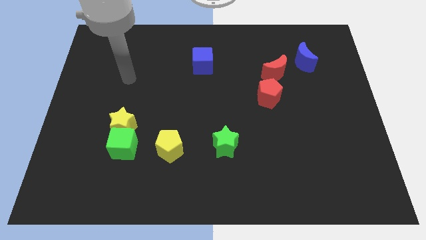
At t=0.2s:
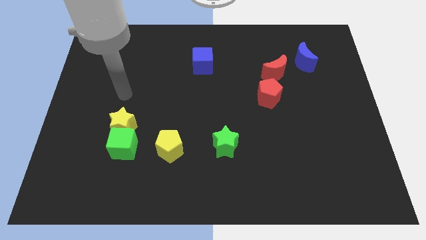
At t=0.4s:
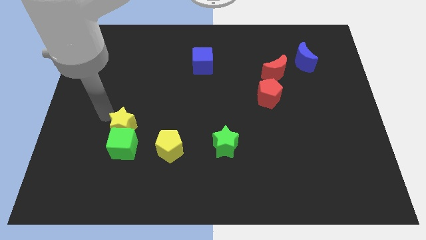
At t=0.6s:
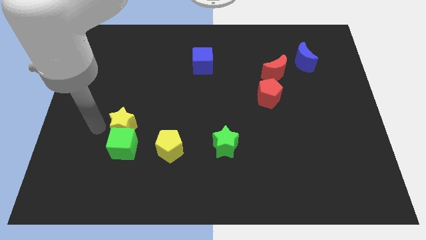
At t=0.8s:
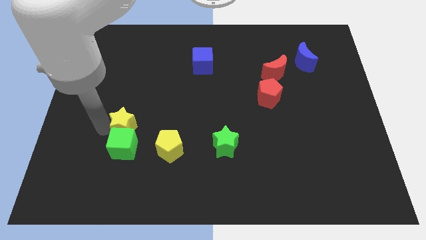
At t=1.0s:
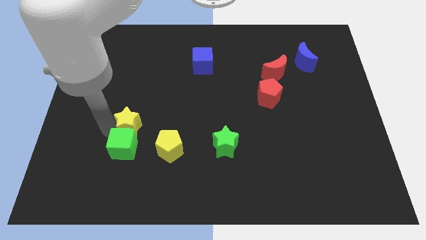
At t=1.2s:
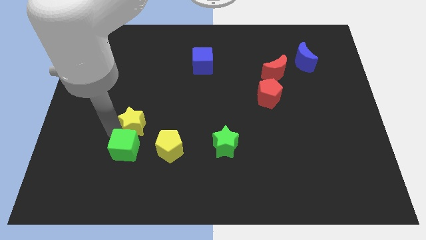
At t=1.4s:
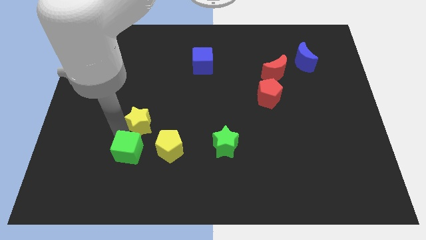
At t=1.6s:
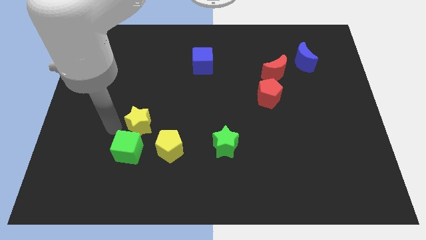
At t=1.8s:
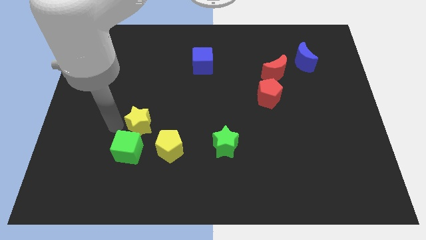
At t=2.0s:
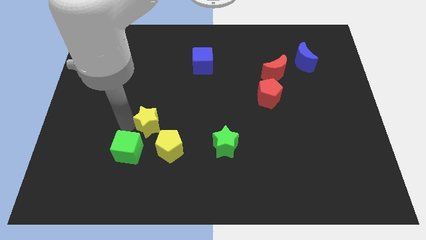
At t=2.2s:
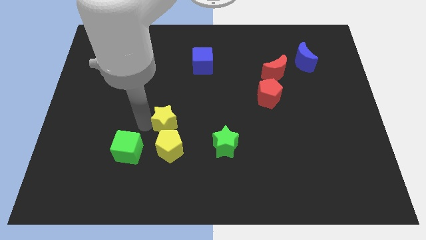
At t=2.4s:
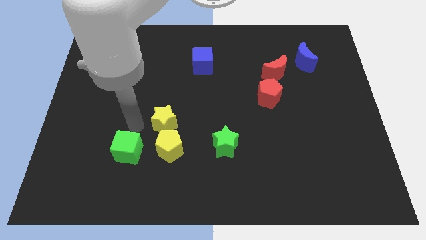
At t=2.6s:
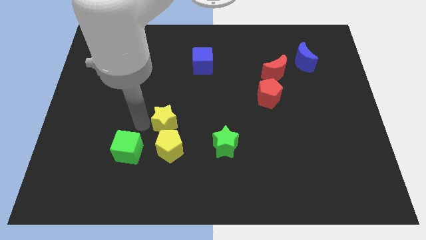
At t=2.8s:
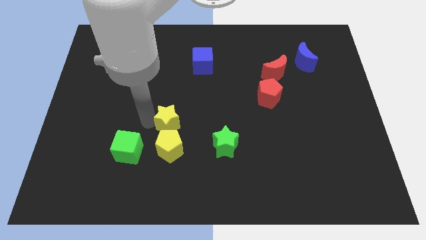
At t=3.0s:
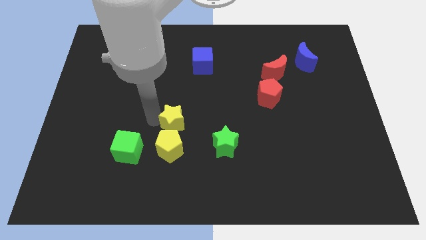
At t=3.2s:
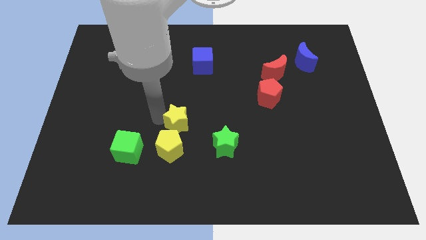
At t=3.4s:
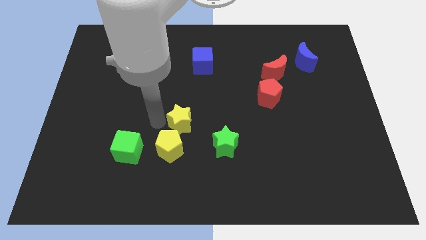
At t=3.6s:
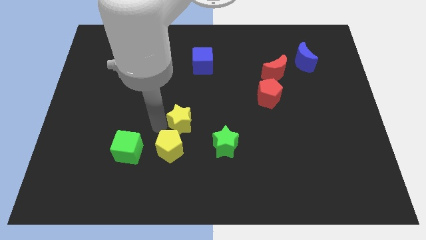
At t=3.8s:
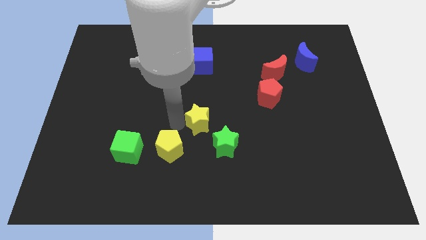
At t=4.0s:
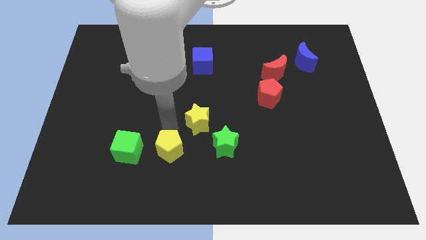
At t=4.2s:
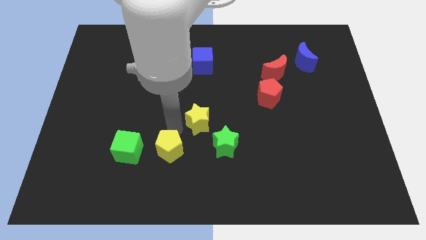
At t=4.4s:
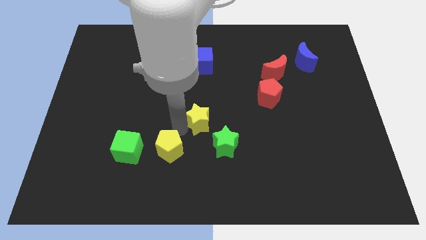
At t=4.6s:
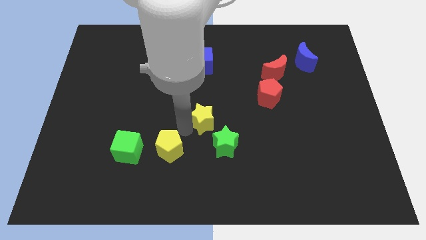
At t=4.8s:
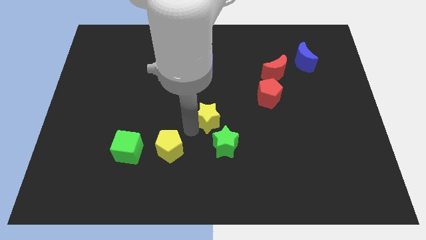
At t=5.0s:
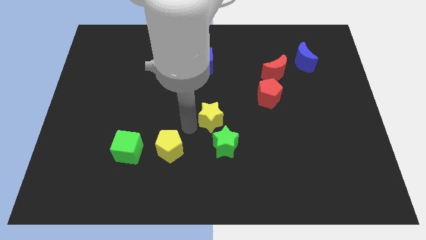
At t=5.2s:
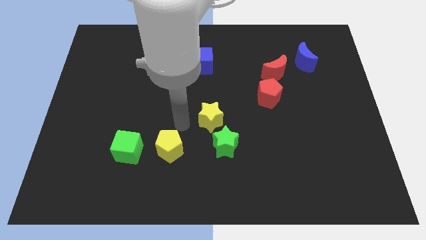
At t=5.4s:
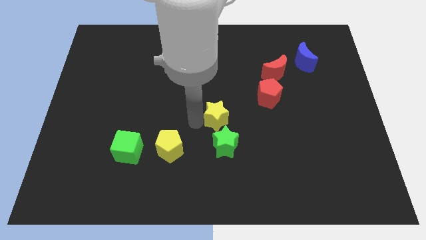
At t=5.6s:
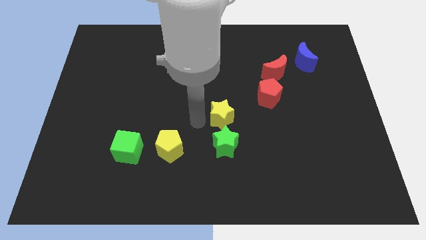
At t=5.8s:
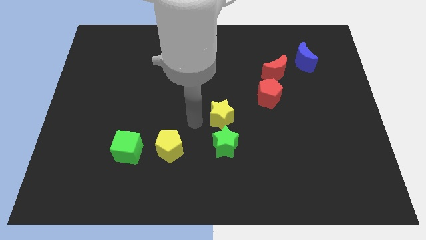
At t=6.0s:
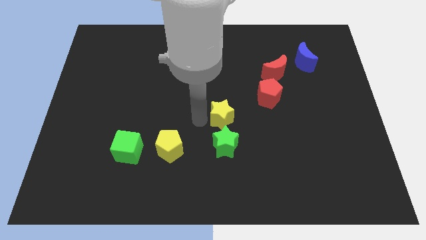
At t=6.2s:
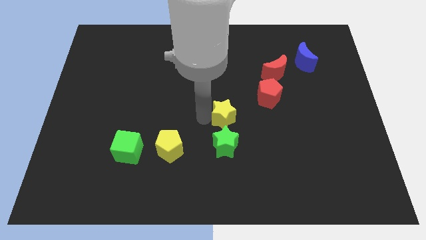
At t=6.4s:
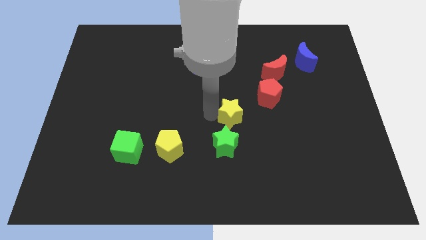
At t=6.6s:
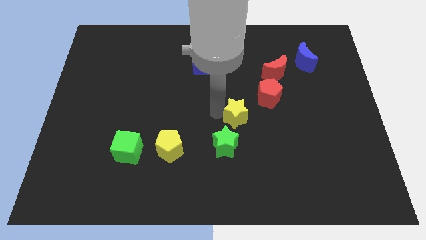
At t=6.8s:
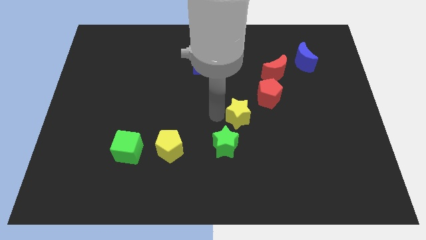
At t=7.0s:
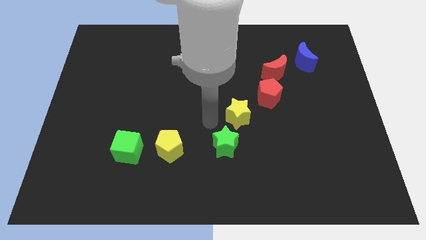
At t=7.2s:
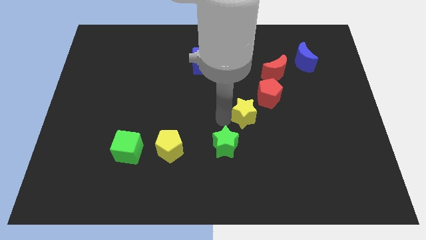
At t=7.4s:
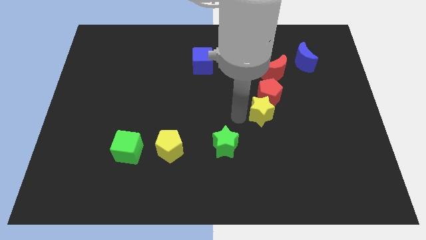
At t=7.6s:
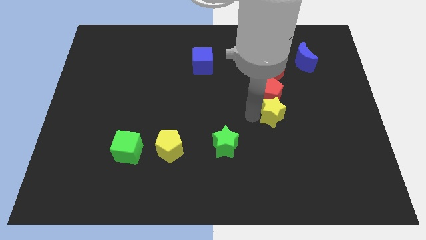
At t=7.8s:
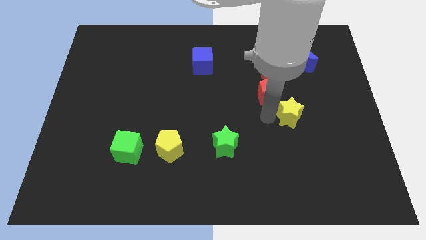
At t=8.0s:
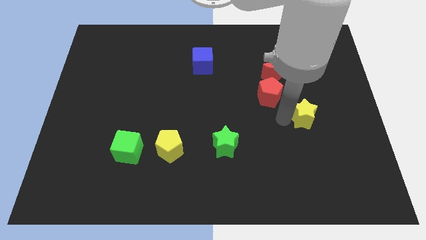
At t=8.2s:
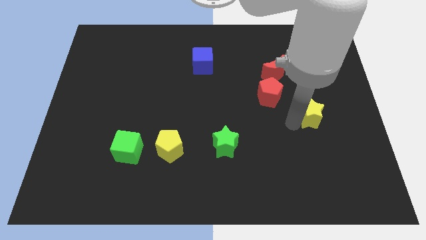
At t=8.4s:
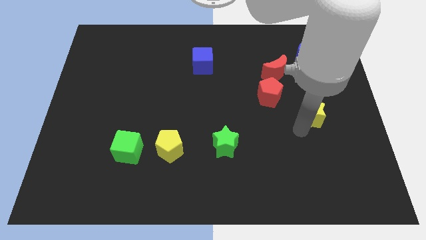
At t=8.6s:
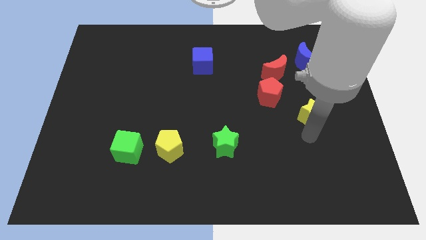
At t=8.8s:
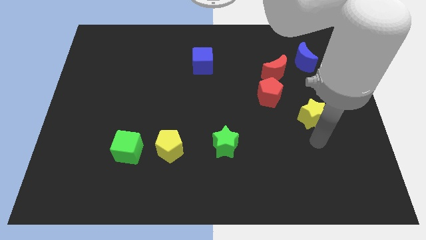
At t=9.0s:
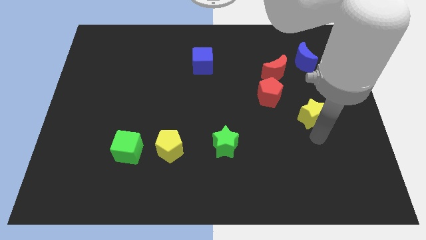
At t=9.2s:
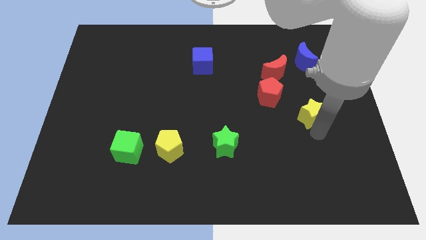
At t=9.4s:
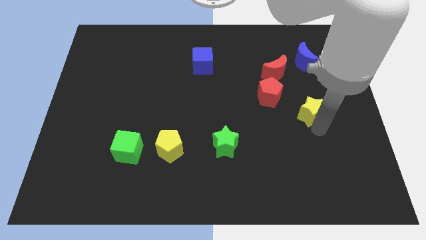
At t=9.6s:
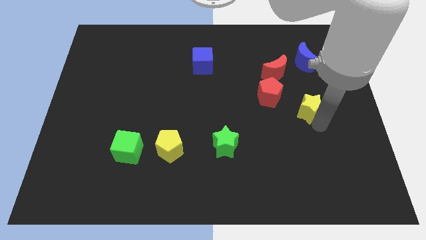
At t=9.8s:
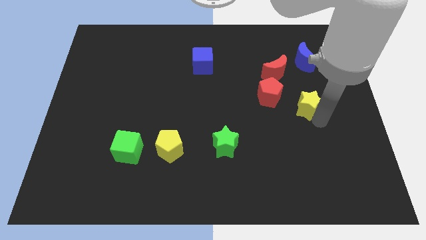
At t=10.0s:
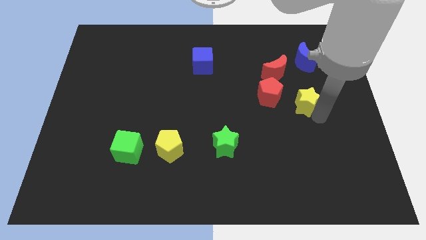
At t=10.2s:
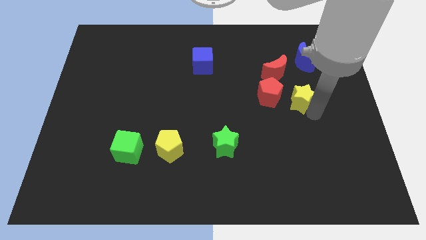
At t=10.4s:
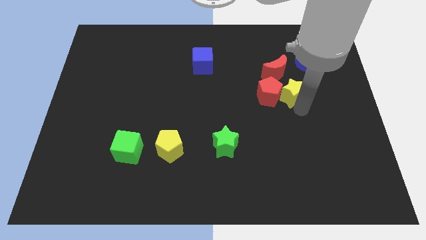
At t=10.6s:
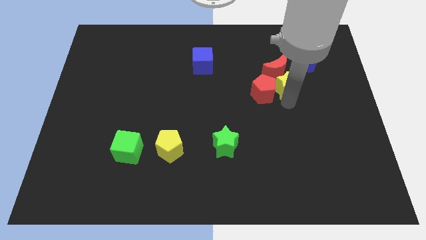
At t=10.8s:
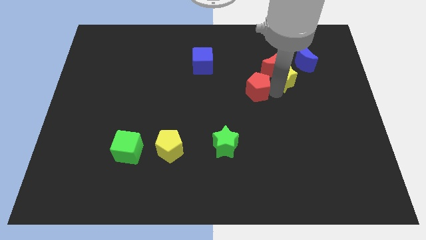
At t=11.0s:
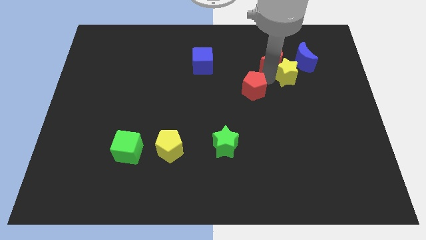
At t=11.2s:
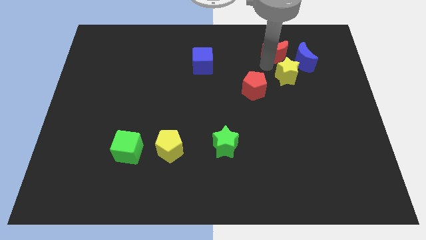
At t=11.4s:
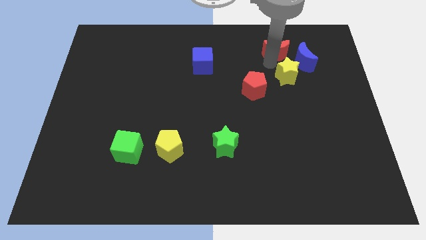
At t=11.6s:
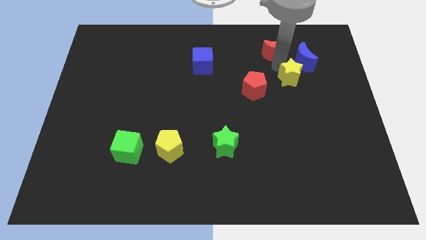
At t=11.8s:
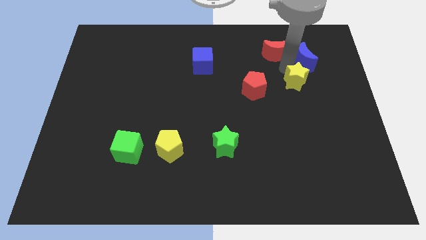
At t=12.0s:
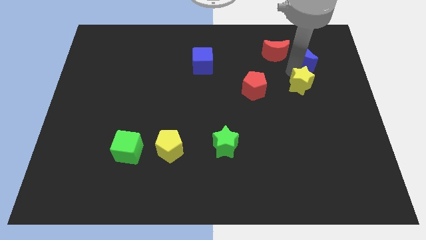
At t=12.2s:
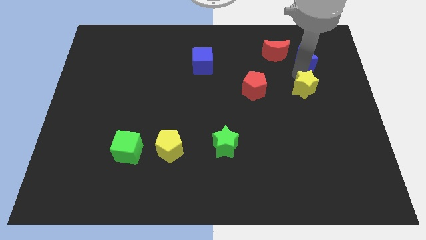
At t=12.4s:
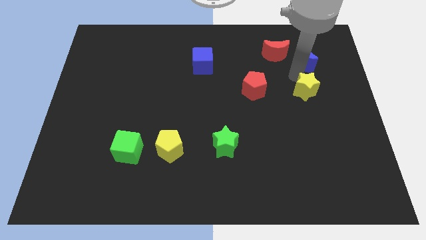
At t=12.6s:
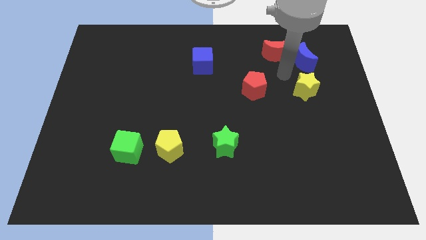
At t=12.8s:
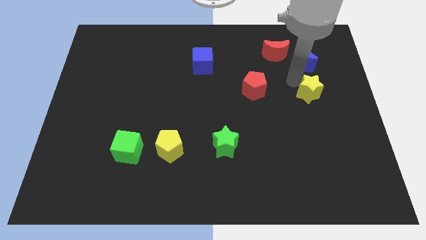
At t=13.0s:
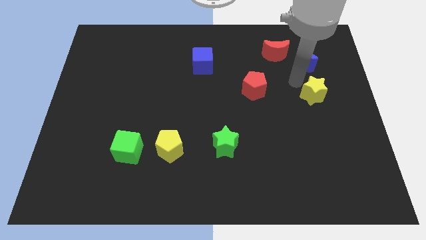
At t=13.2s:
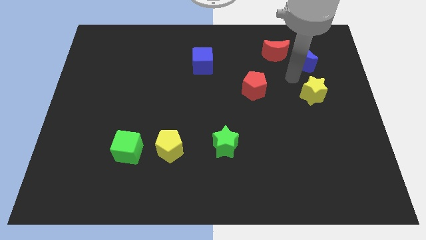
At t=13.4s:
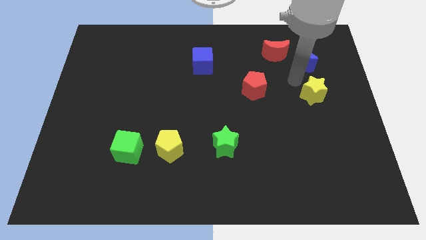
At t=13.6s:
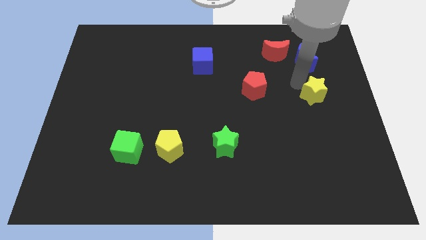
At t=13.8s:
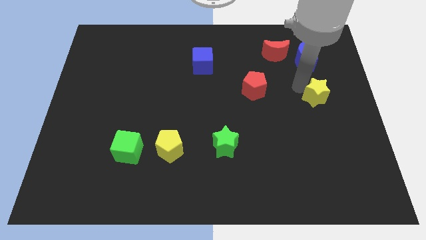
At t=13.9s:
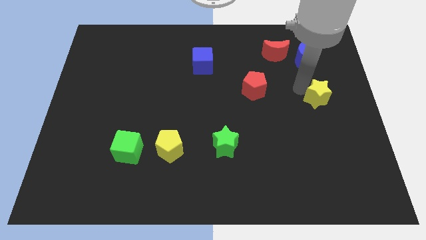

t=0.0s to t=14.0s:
move the yellow star to the right side of the board
